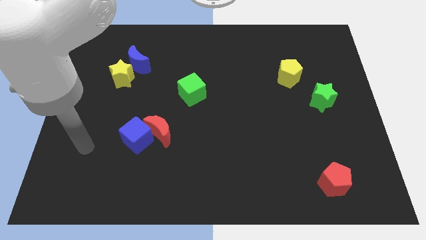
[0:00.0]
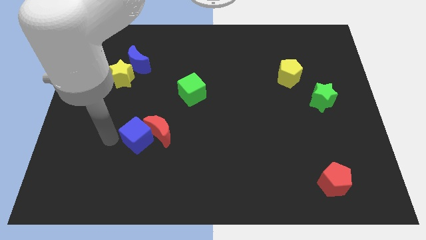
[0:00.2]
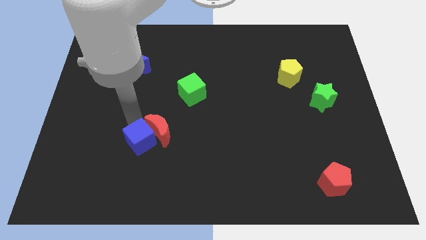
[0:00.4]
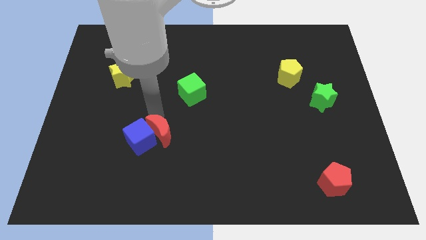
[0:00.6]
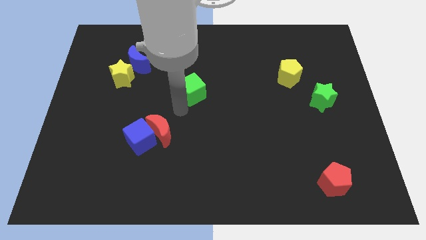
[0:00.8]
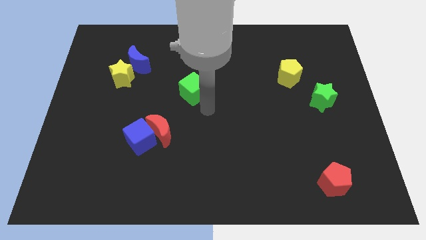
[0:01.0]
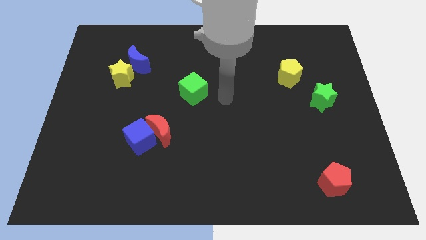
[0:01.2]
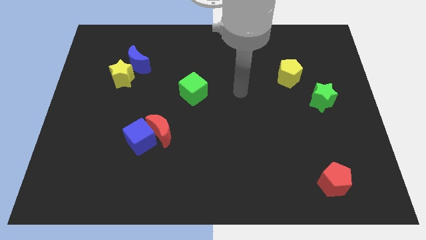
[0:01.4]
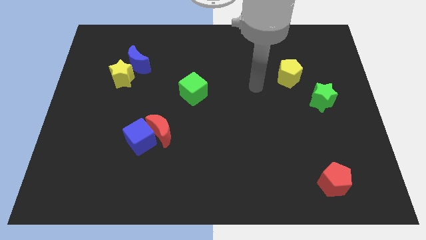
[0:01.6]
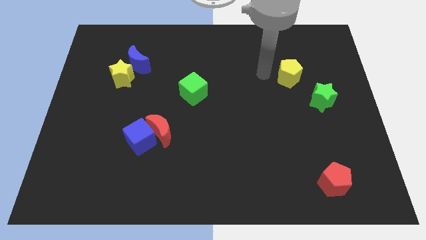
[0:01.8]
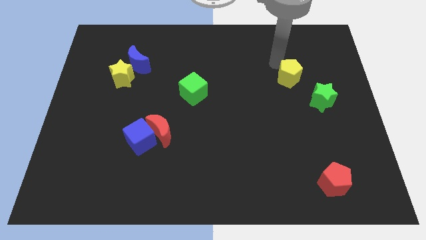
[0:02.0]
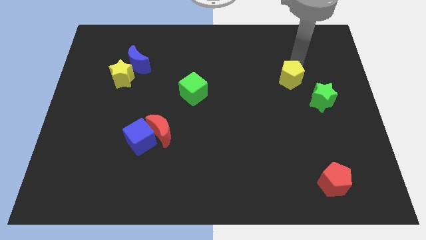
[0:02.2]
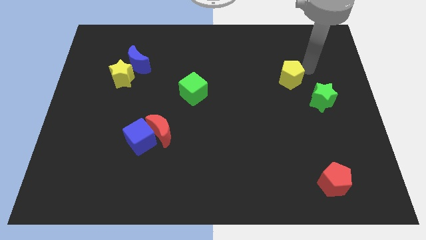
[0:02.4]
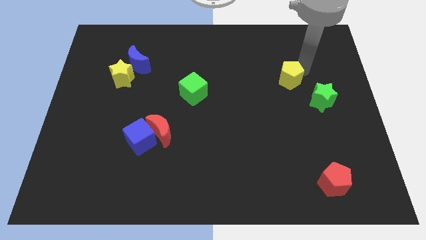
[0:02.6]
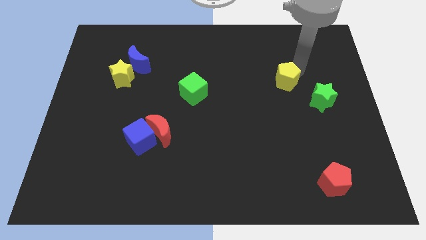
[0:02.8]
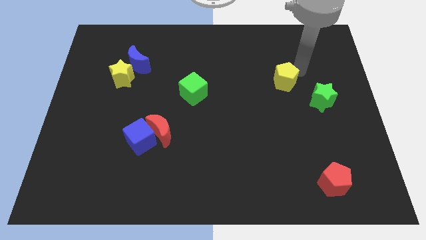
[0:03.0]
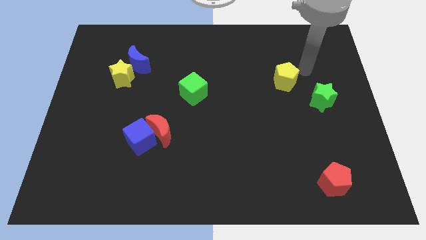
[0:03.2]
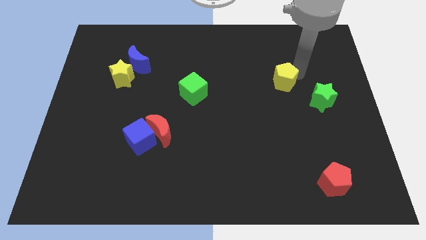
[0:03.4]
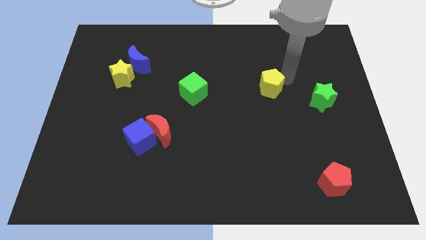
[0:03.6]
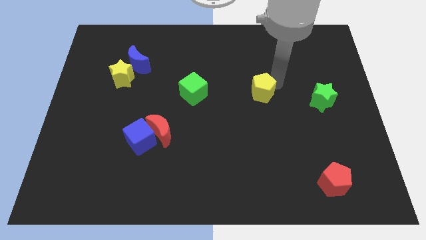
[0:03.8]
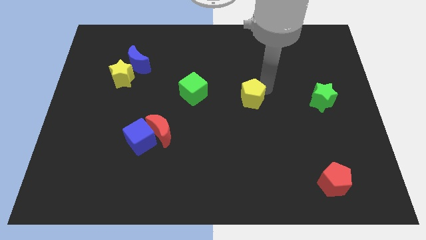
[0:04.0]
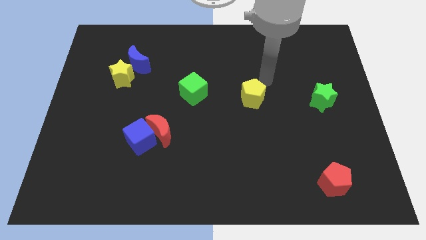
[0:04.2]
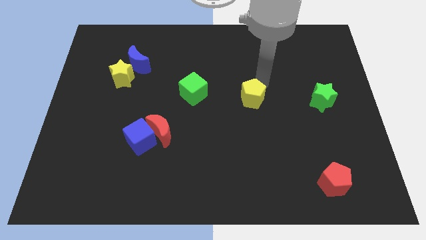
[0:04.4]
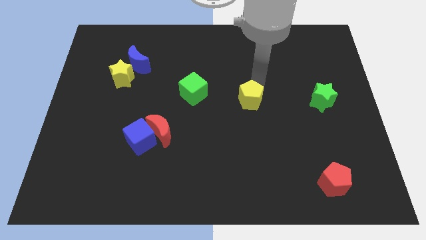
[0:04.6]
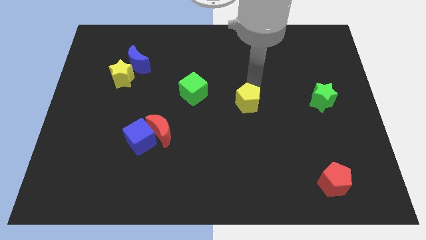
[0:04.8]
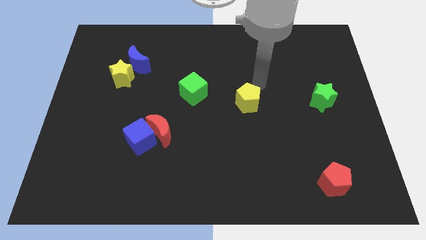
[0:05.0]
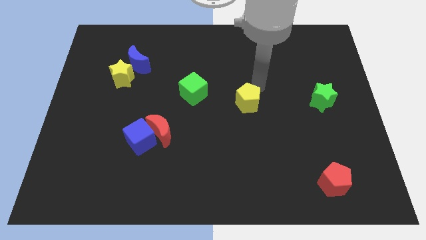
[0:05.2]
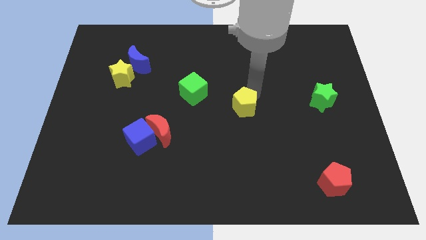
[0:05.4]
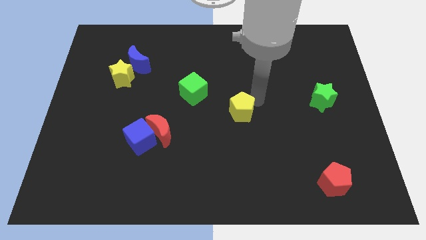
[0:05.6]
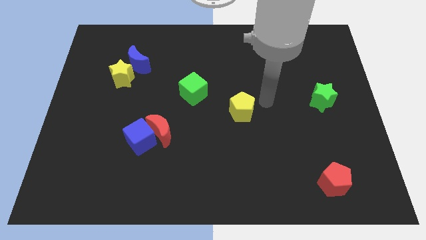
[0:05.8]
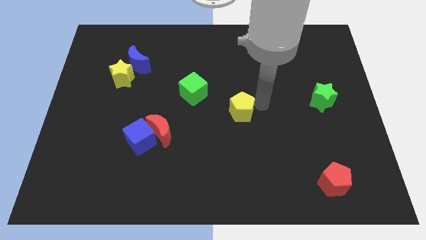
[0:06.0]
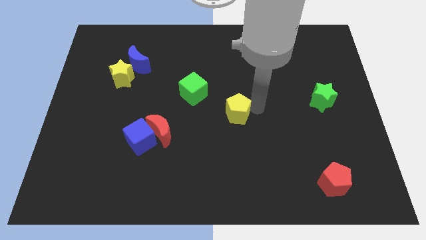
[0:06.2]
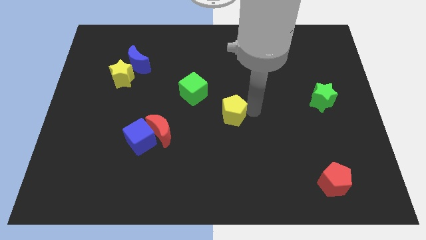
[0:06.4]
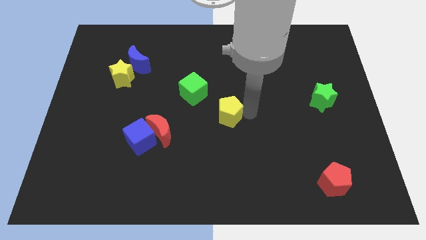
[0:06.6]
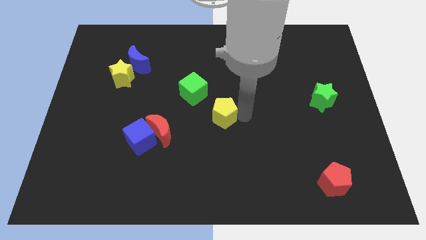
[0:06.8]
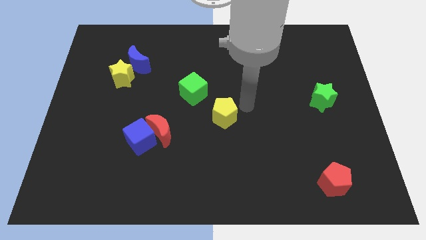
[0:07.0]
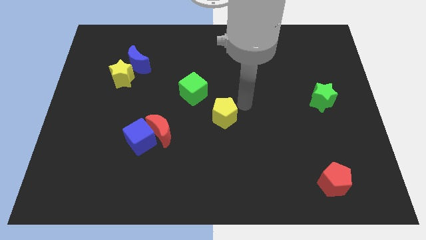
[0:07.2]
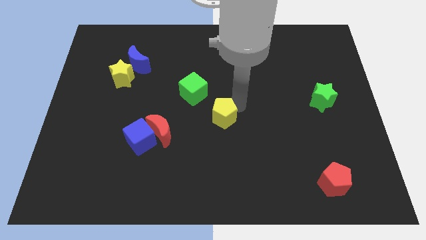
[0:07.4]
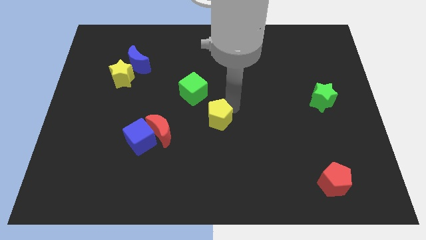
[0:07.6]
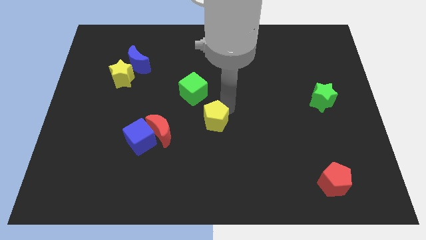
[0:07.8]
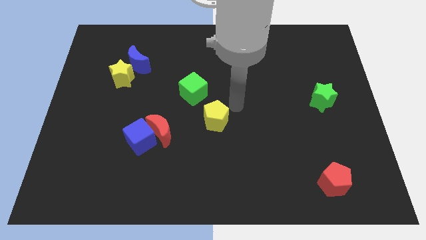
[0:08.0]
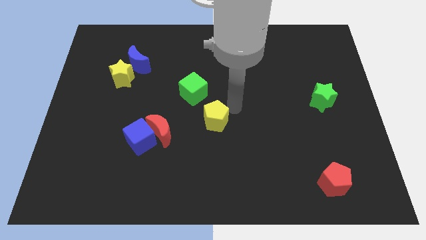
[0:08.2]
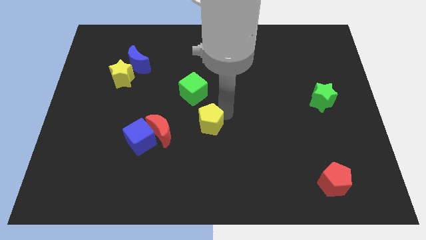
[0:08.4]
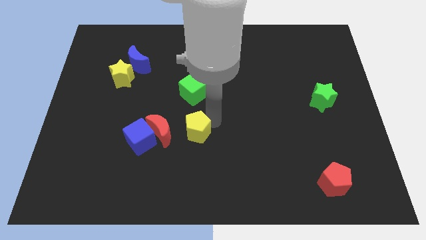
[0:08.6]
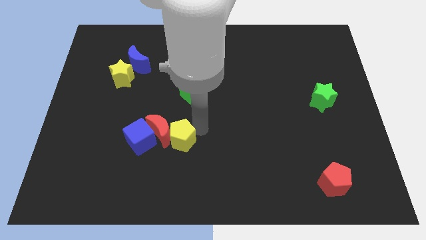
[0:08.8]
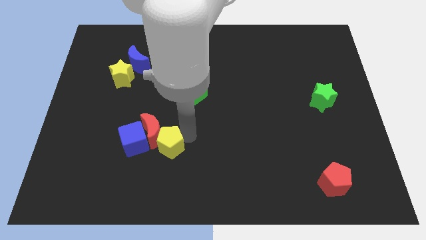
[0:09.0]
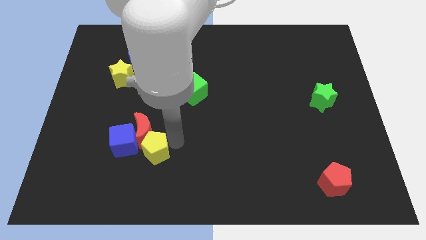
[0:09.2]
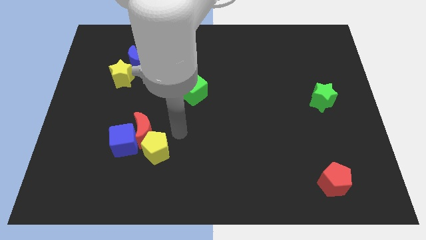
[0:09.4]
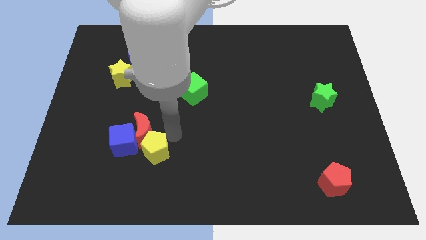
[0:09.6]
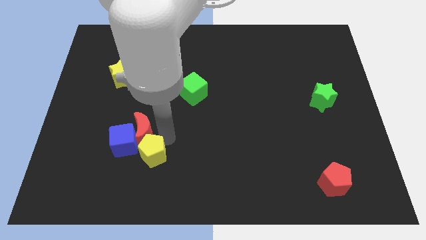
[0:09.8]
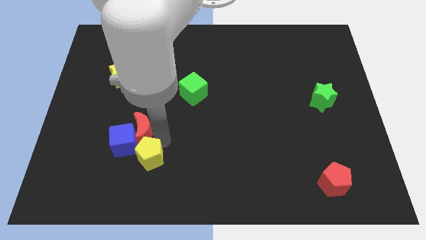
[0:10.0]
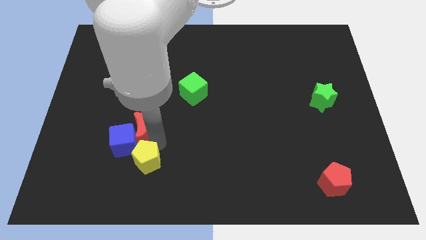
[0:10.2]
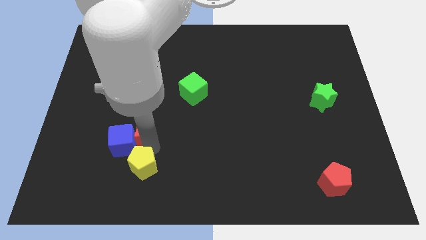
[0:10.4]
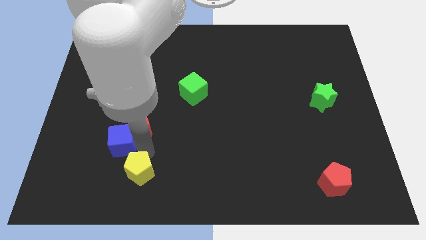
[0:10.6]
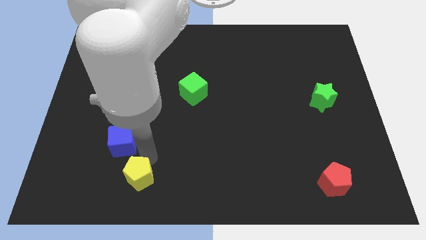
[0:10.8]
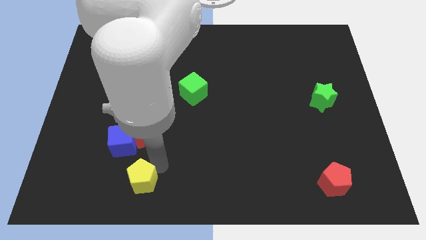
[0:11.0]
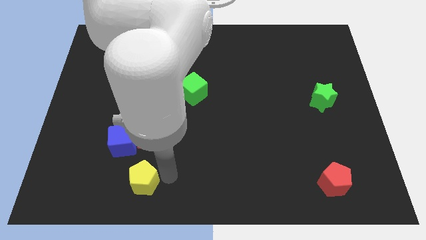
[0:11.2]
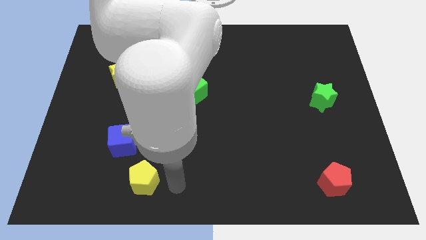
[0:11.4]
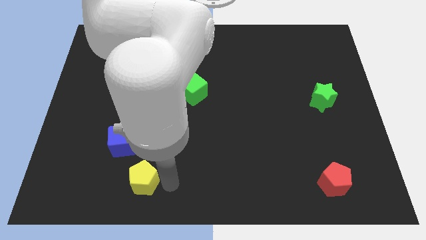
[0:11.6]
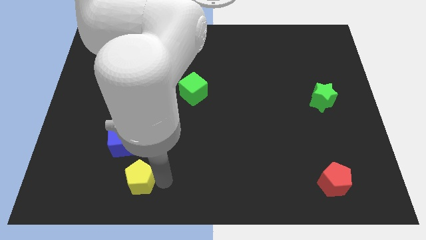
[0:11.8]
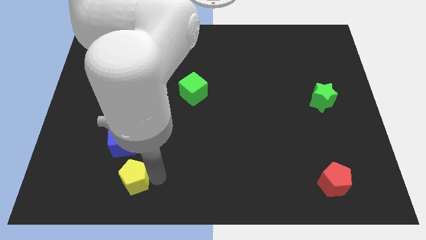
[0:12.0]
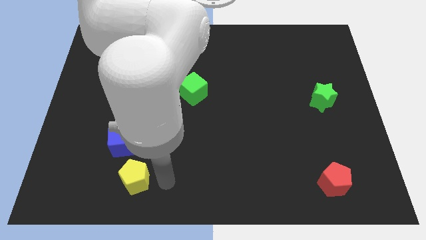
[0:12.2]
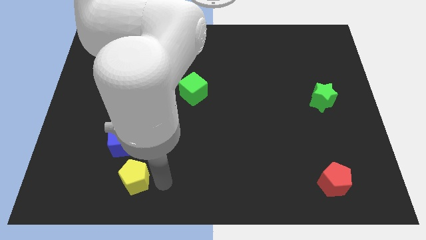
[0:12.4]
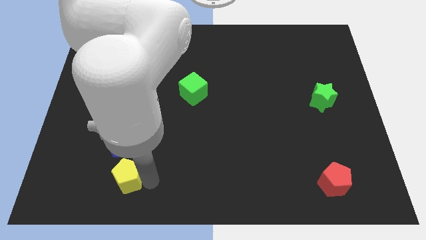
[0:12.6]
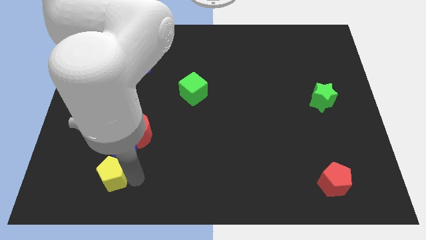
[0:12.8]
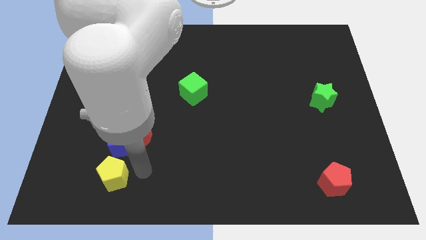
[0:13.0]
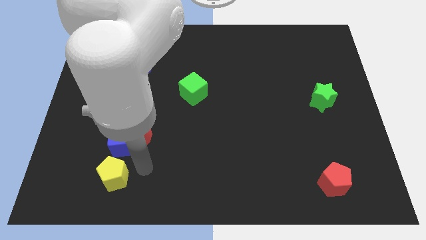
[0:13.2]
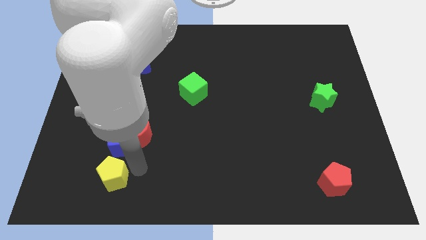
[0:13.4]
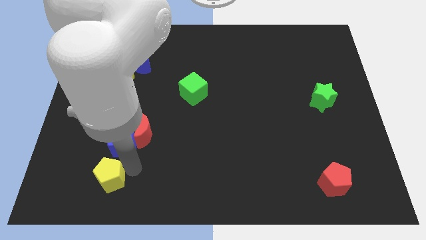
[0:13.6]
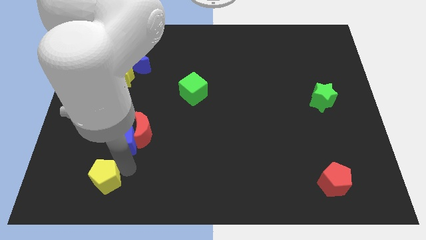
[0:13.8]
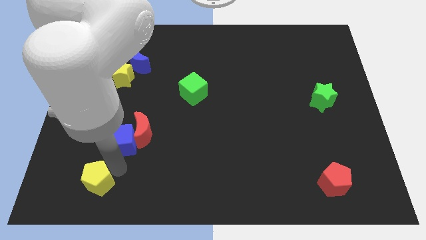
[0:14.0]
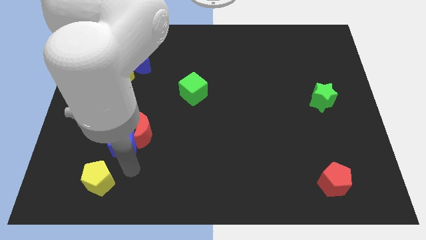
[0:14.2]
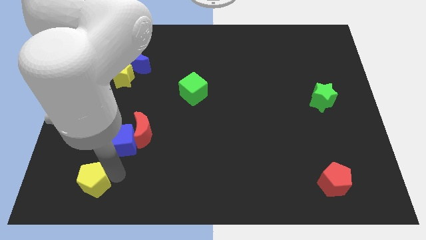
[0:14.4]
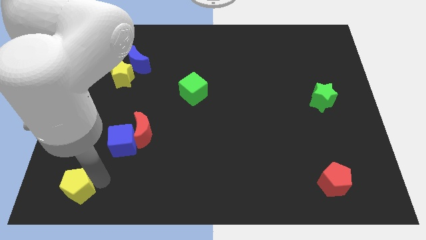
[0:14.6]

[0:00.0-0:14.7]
move the yellow pentagon to the bottom left corner
